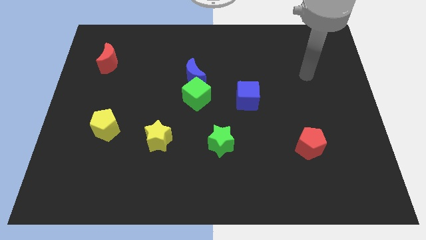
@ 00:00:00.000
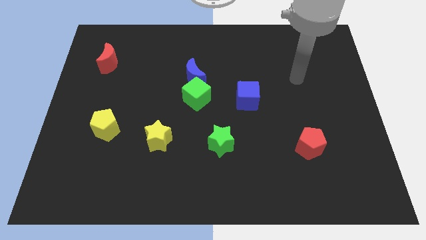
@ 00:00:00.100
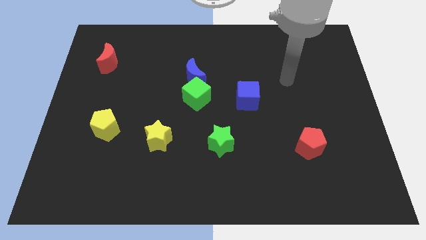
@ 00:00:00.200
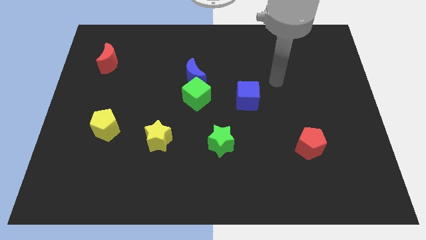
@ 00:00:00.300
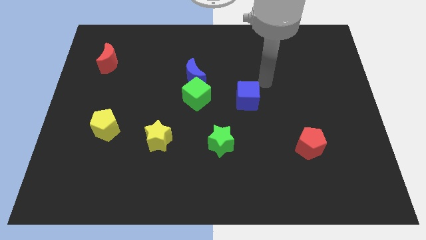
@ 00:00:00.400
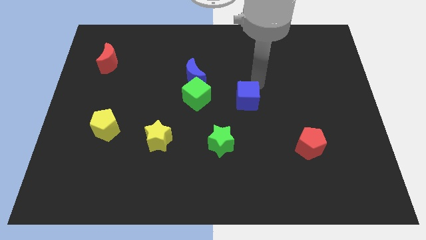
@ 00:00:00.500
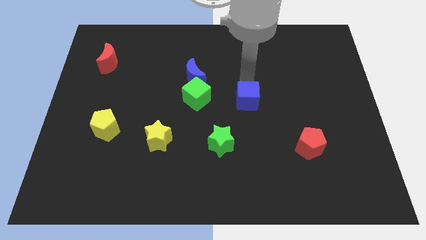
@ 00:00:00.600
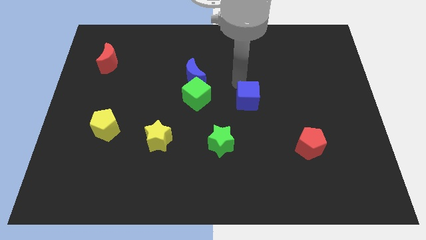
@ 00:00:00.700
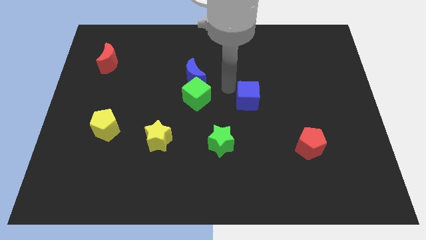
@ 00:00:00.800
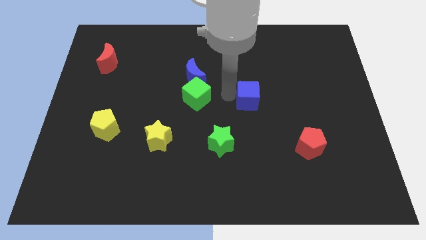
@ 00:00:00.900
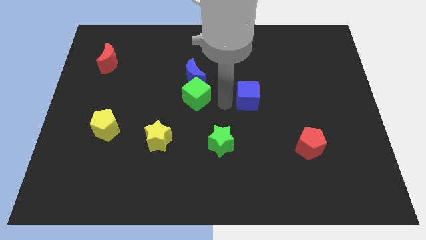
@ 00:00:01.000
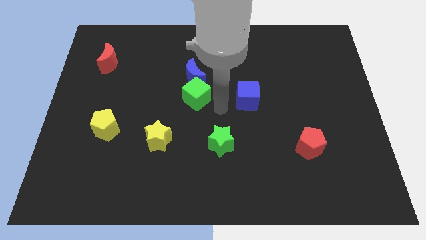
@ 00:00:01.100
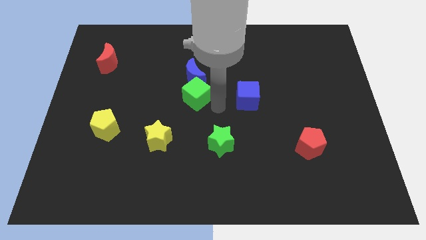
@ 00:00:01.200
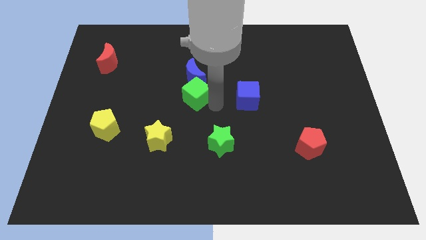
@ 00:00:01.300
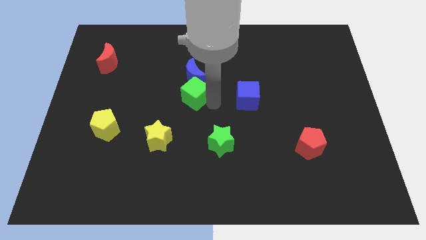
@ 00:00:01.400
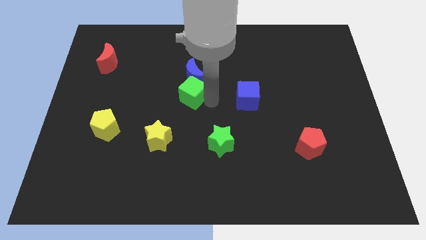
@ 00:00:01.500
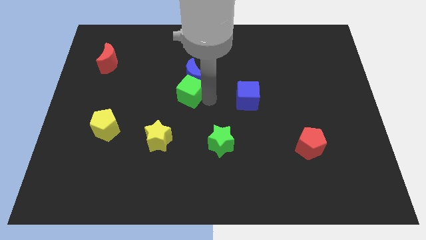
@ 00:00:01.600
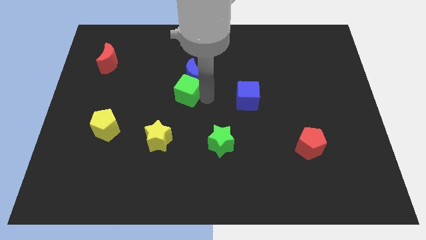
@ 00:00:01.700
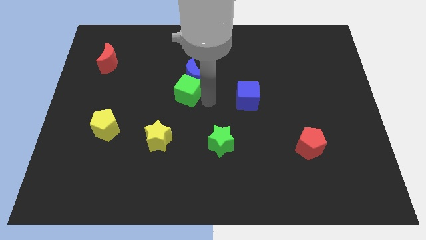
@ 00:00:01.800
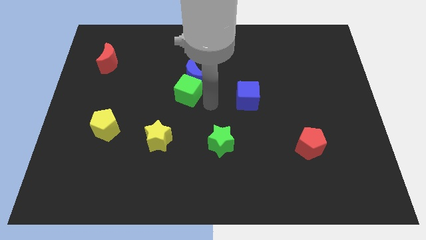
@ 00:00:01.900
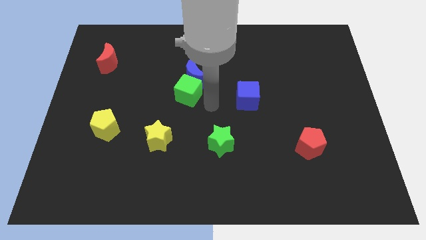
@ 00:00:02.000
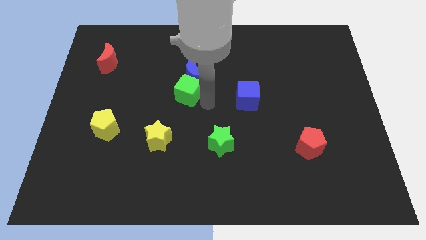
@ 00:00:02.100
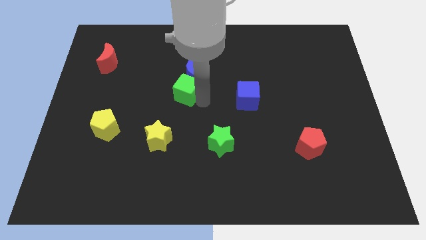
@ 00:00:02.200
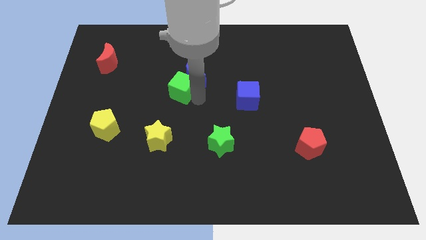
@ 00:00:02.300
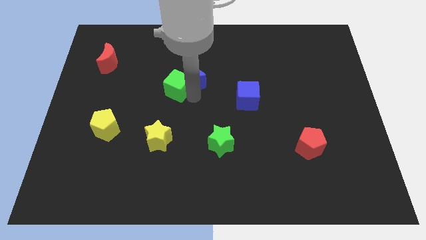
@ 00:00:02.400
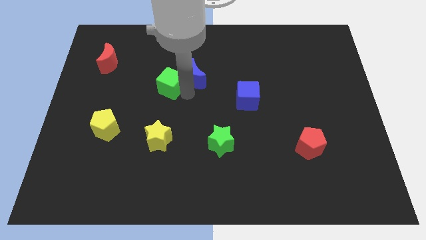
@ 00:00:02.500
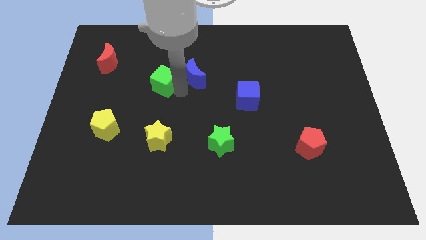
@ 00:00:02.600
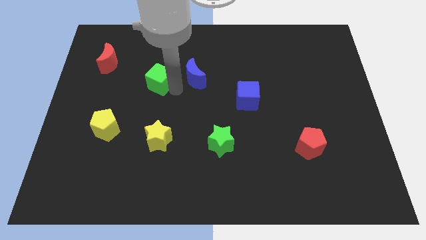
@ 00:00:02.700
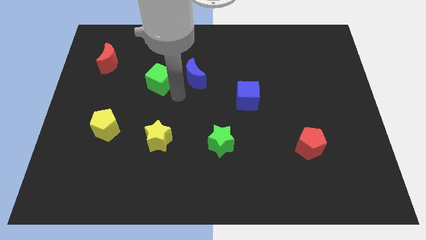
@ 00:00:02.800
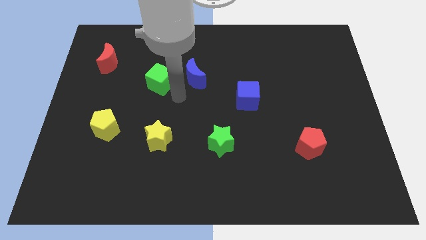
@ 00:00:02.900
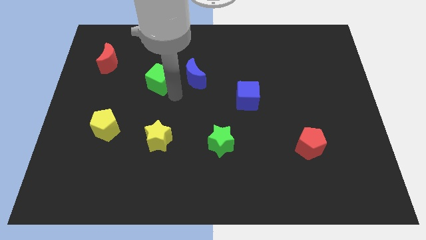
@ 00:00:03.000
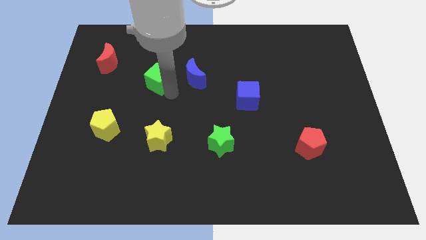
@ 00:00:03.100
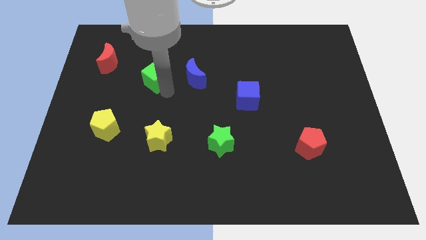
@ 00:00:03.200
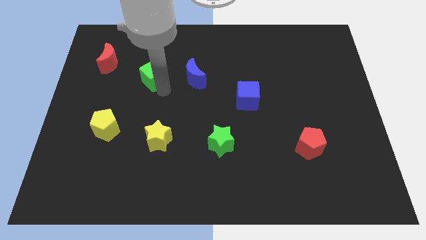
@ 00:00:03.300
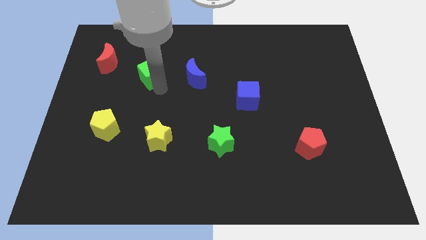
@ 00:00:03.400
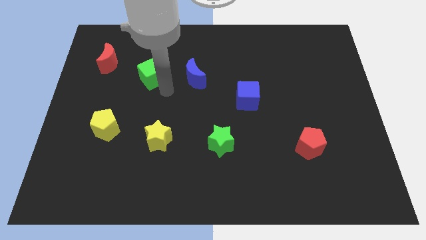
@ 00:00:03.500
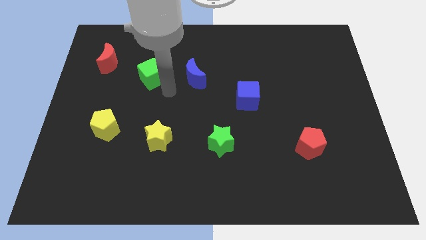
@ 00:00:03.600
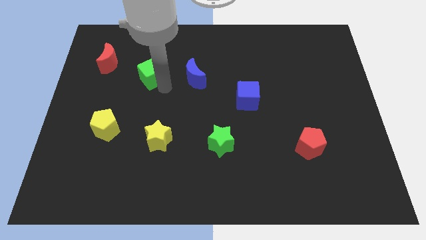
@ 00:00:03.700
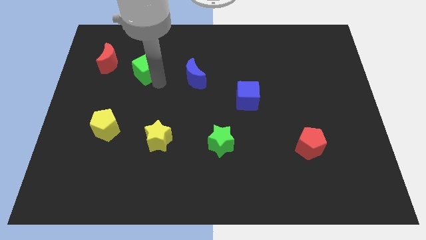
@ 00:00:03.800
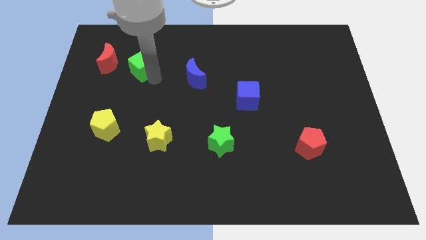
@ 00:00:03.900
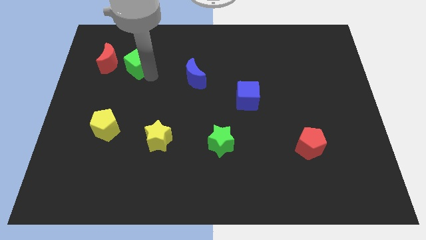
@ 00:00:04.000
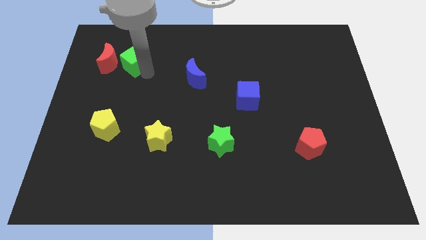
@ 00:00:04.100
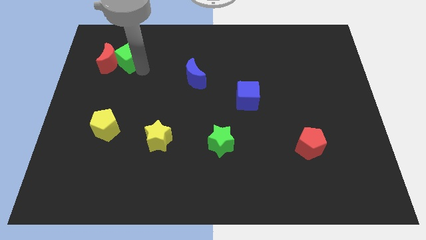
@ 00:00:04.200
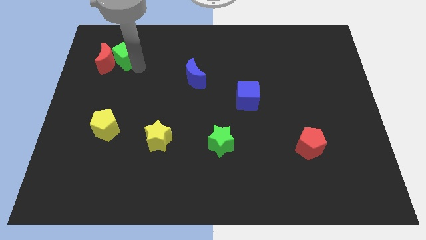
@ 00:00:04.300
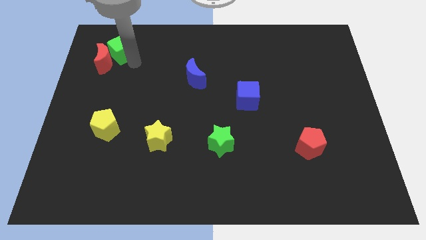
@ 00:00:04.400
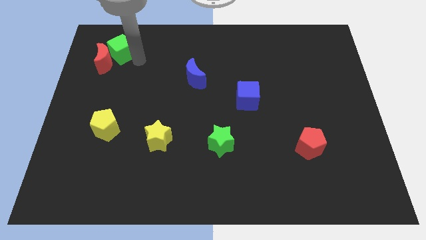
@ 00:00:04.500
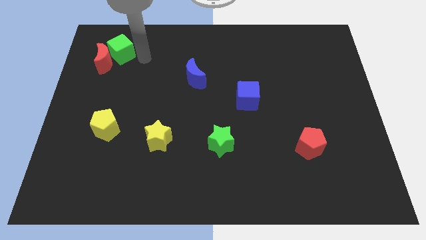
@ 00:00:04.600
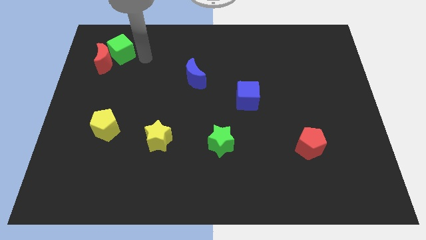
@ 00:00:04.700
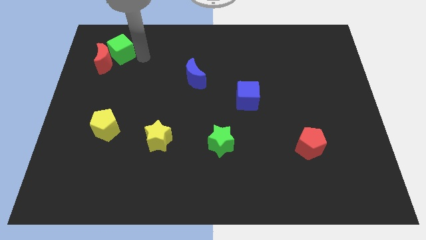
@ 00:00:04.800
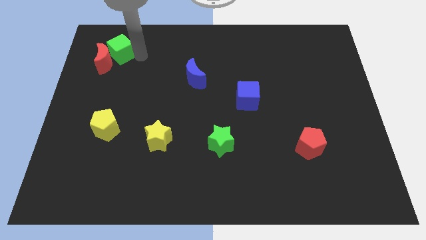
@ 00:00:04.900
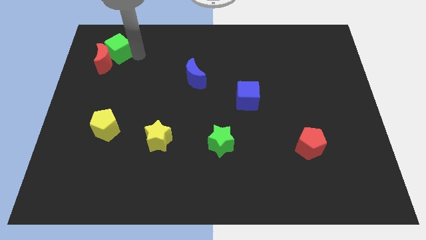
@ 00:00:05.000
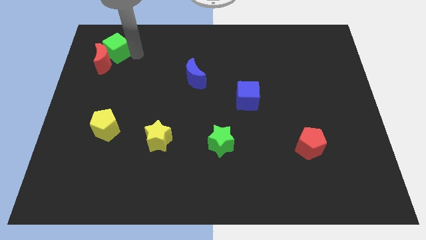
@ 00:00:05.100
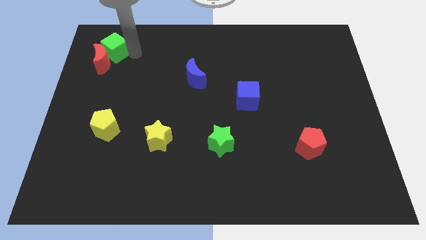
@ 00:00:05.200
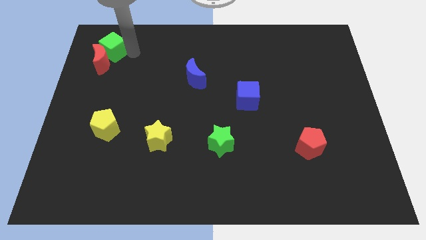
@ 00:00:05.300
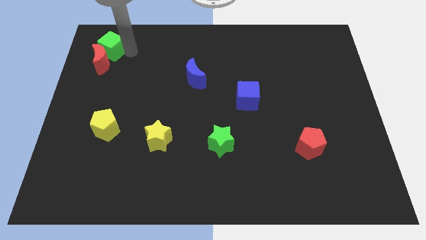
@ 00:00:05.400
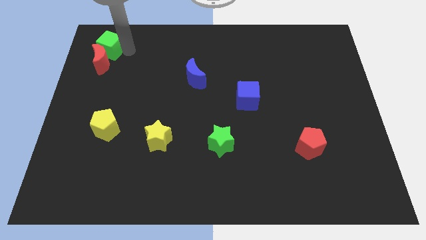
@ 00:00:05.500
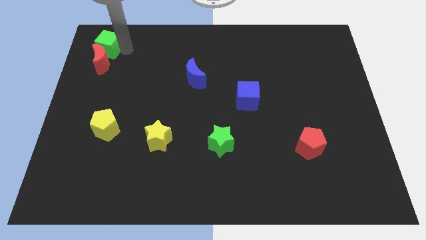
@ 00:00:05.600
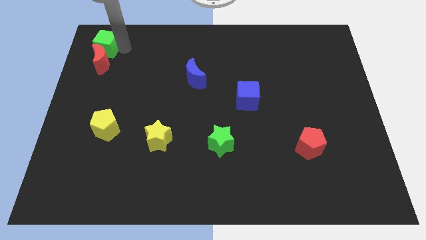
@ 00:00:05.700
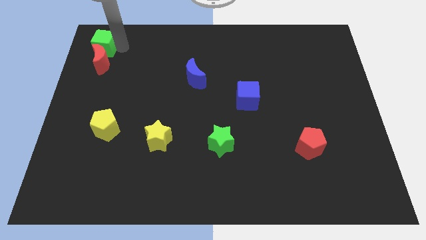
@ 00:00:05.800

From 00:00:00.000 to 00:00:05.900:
slide the green cube to the top left

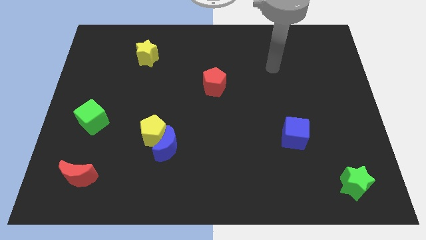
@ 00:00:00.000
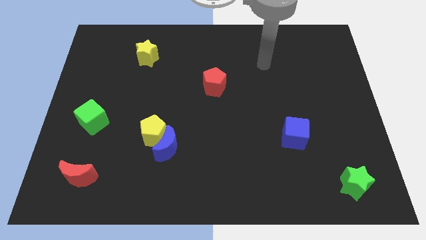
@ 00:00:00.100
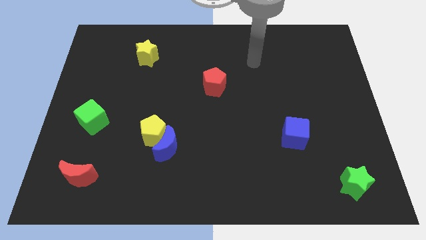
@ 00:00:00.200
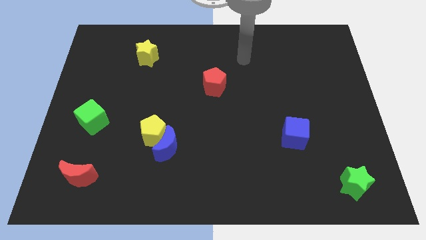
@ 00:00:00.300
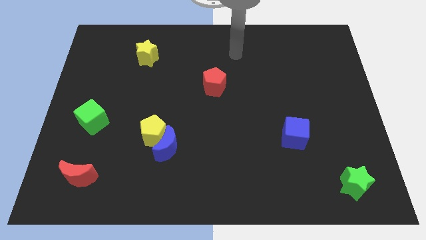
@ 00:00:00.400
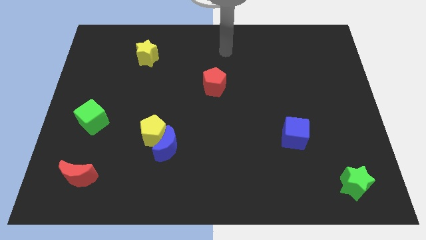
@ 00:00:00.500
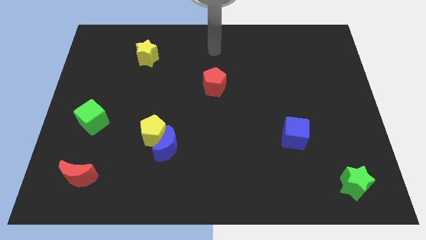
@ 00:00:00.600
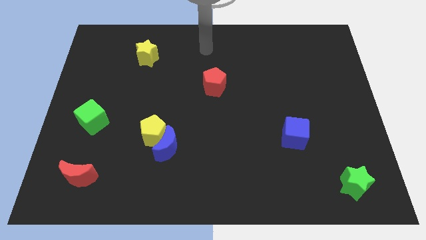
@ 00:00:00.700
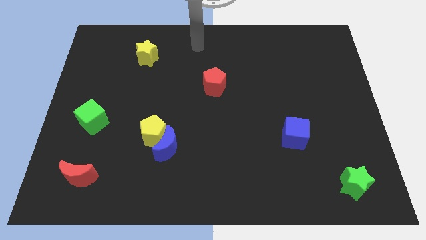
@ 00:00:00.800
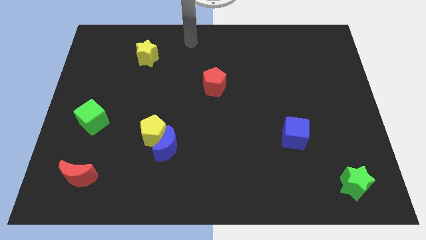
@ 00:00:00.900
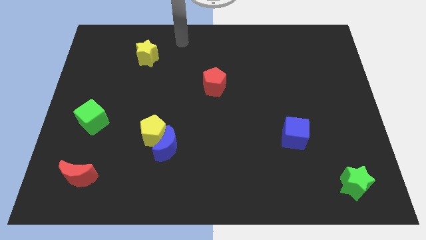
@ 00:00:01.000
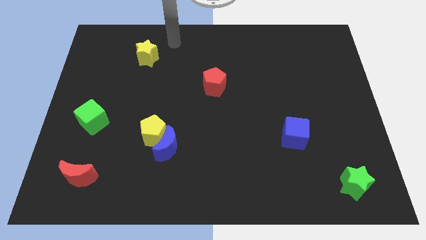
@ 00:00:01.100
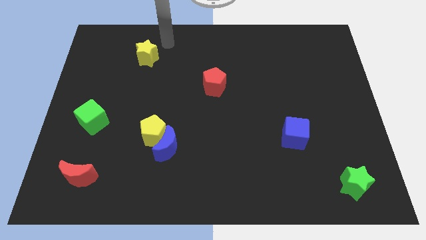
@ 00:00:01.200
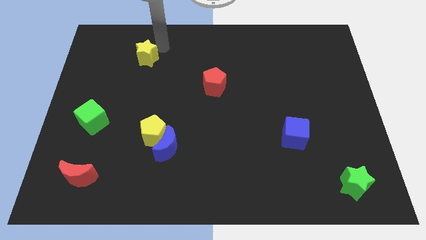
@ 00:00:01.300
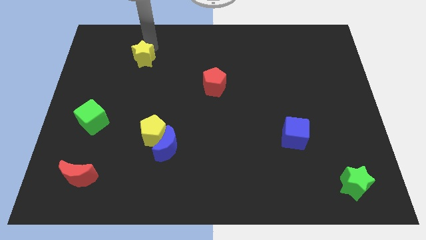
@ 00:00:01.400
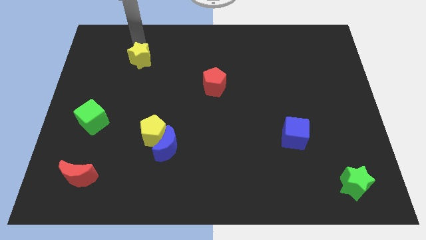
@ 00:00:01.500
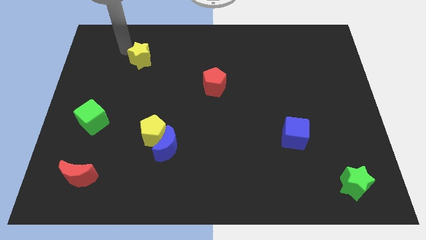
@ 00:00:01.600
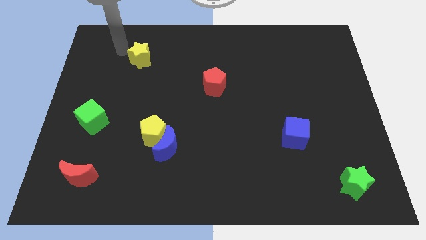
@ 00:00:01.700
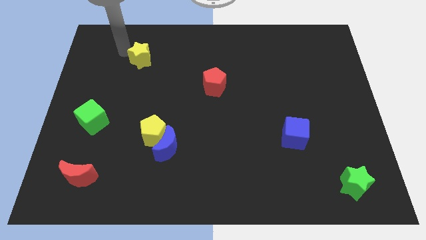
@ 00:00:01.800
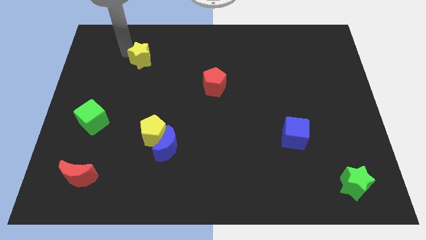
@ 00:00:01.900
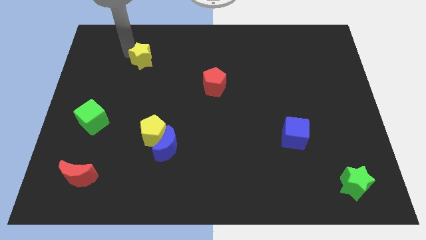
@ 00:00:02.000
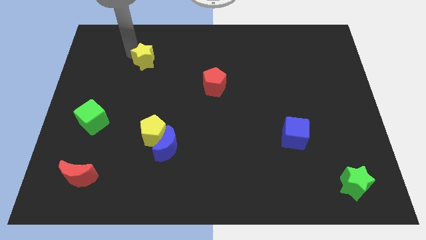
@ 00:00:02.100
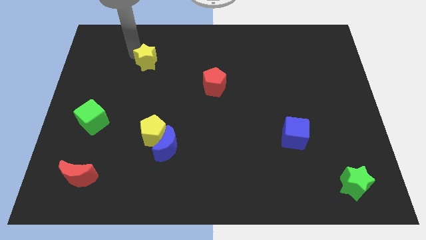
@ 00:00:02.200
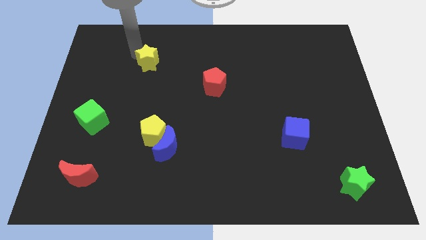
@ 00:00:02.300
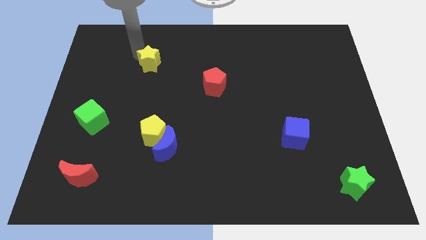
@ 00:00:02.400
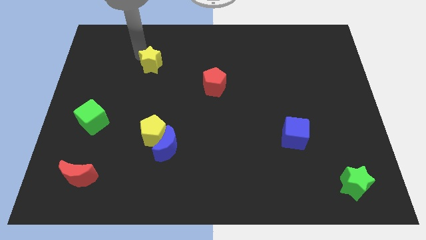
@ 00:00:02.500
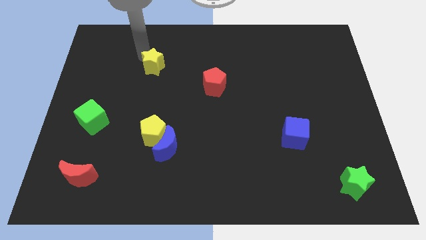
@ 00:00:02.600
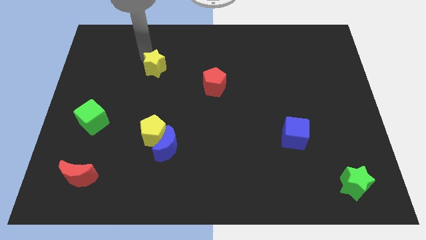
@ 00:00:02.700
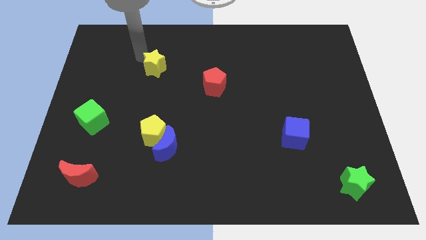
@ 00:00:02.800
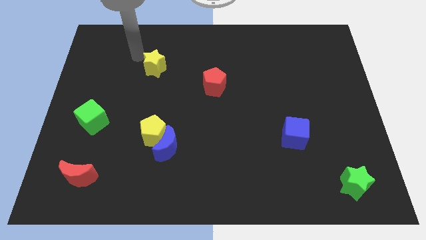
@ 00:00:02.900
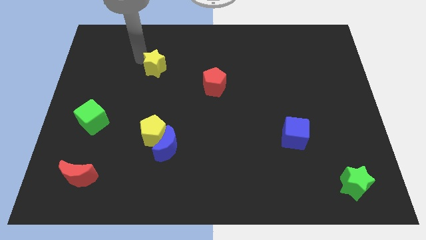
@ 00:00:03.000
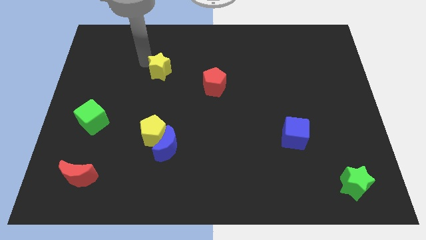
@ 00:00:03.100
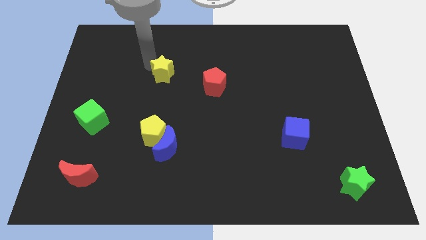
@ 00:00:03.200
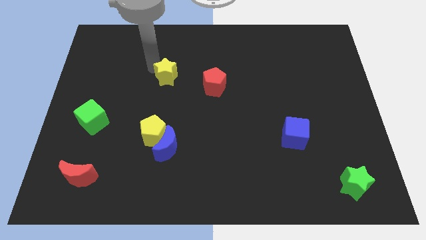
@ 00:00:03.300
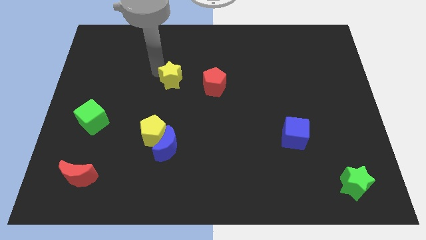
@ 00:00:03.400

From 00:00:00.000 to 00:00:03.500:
put the yellow star to the center
